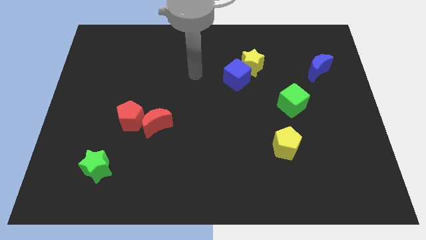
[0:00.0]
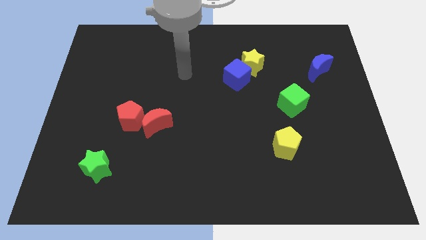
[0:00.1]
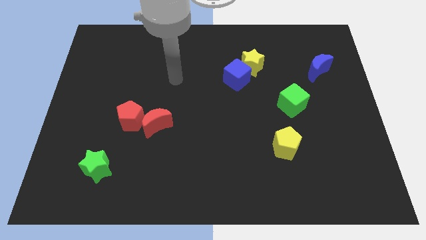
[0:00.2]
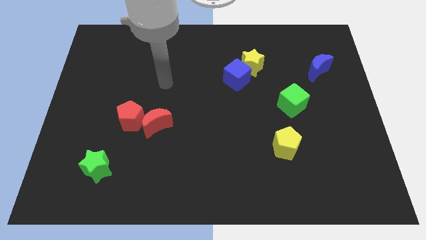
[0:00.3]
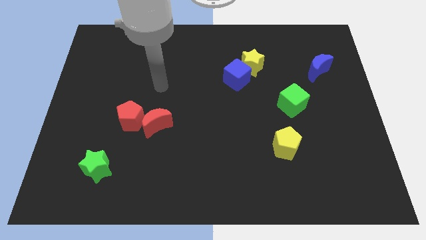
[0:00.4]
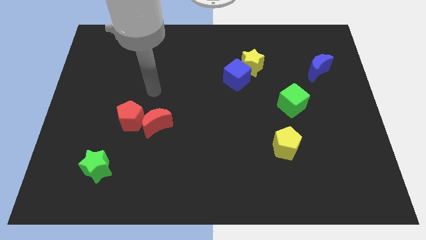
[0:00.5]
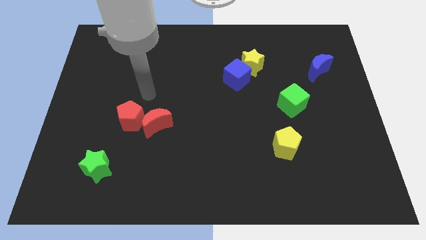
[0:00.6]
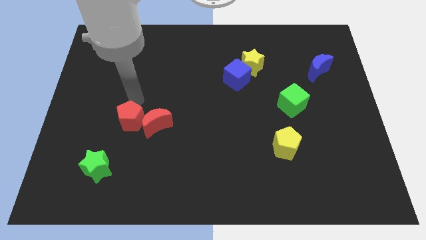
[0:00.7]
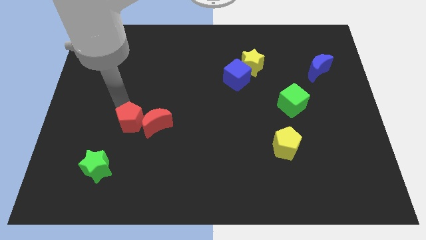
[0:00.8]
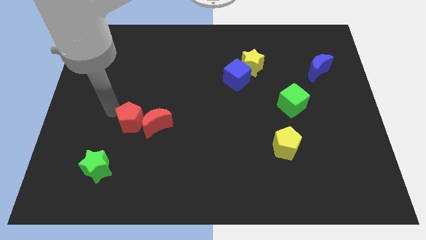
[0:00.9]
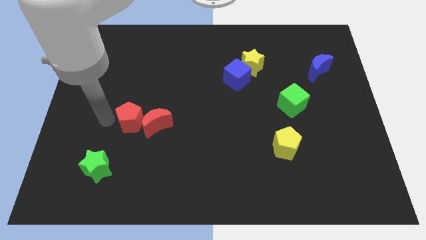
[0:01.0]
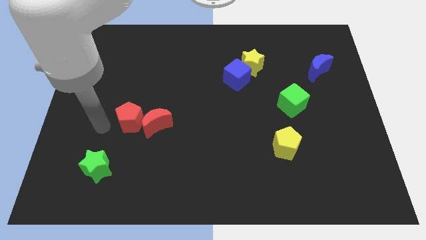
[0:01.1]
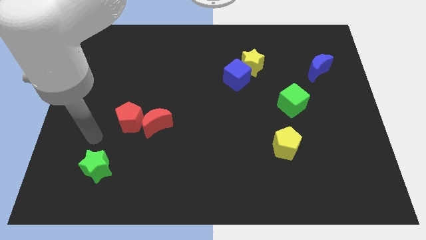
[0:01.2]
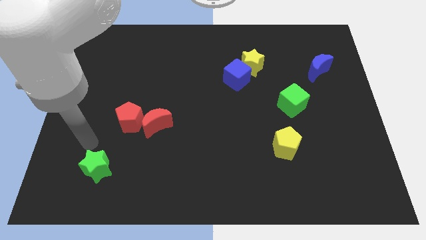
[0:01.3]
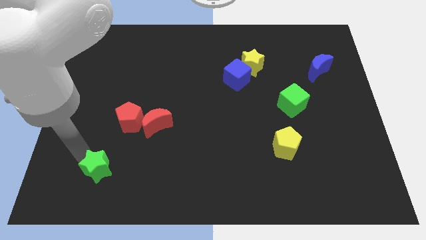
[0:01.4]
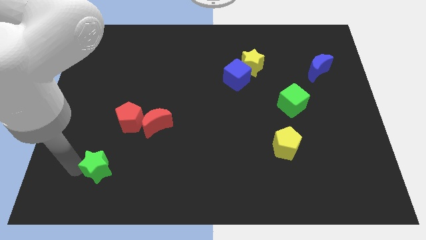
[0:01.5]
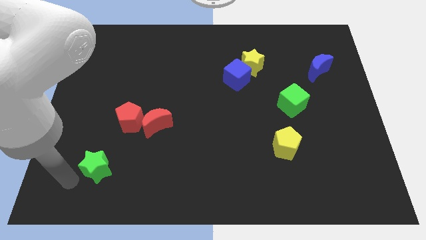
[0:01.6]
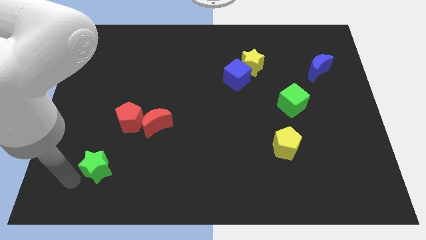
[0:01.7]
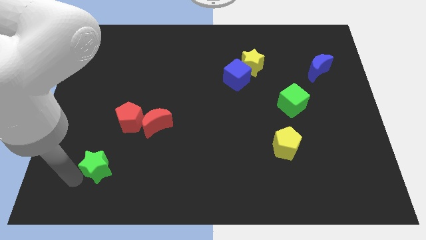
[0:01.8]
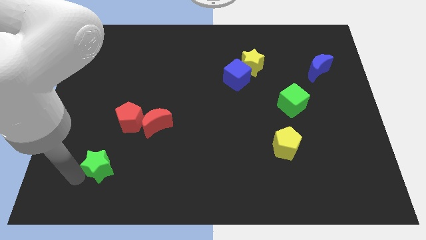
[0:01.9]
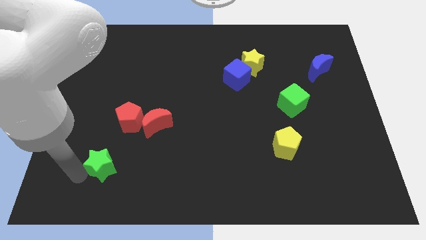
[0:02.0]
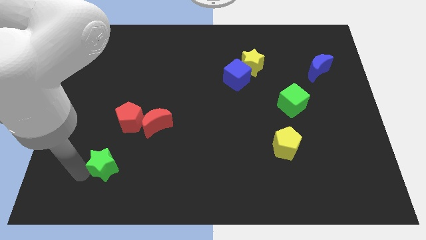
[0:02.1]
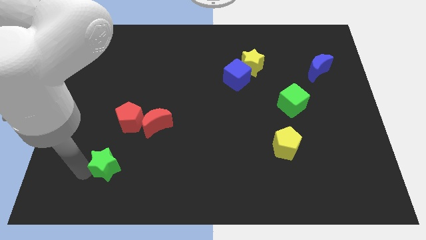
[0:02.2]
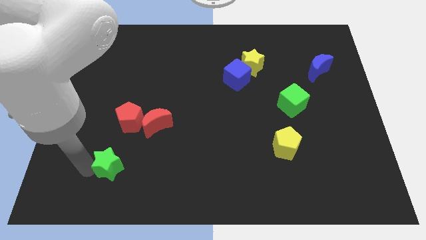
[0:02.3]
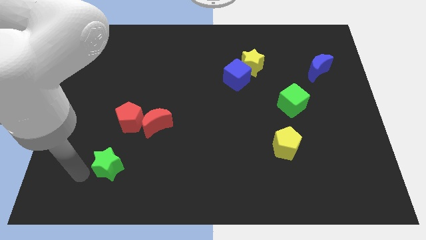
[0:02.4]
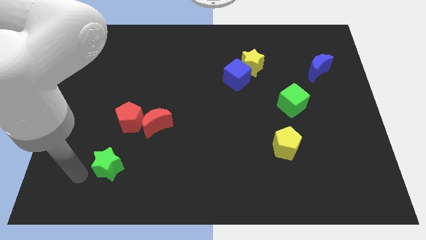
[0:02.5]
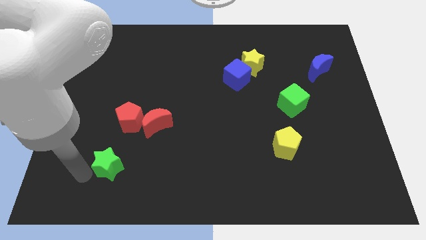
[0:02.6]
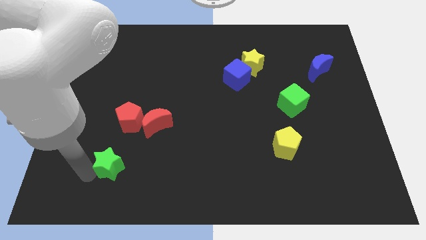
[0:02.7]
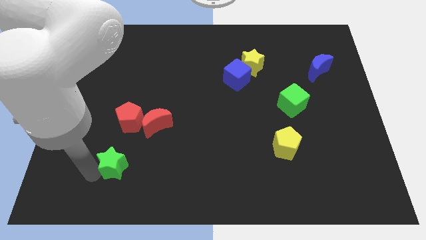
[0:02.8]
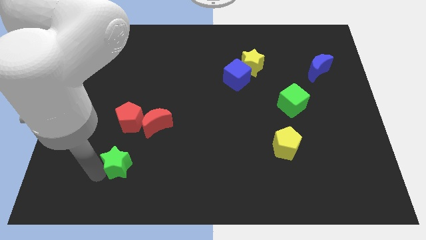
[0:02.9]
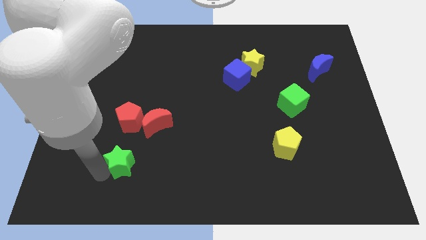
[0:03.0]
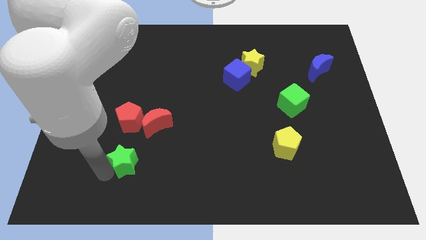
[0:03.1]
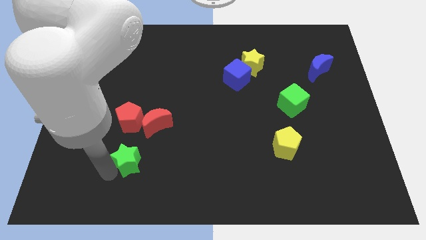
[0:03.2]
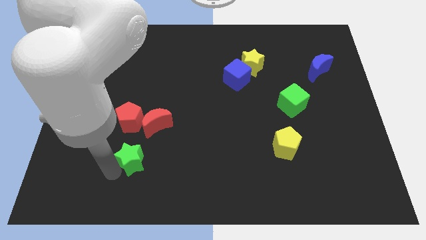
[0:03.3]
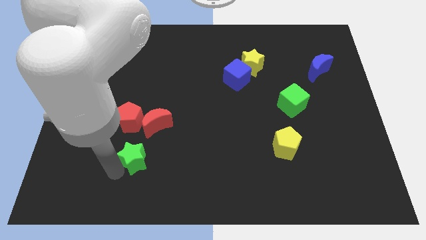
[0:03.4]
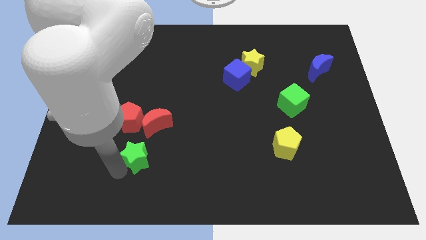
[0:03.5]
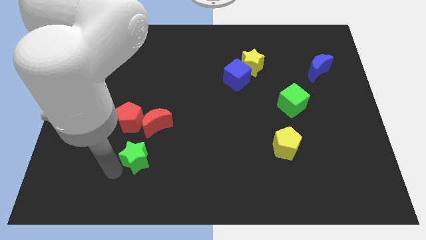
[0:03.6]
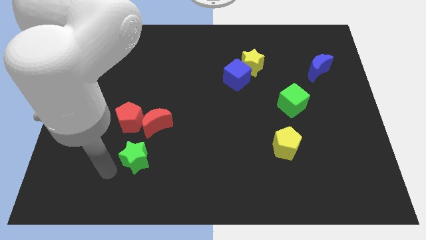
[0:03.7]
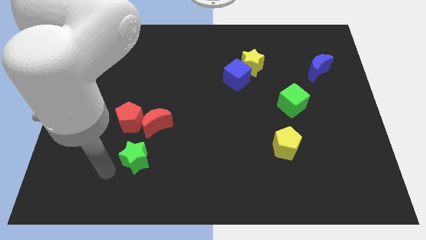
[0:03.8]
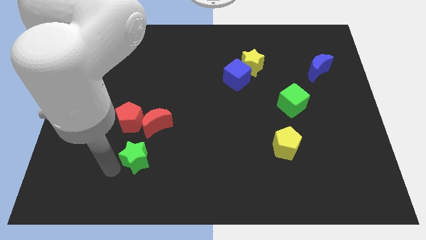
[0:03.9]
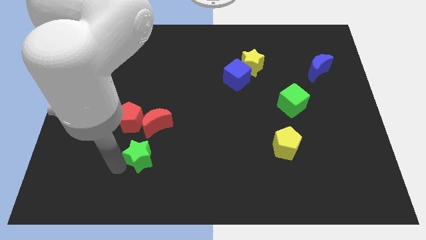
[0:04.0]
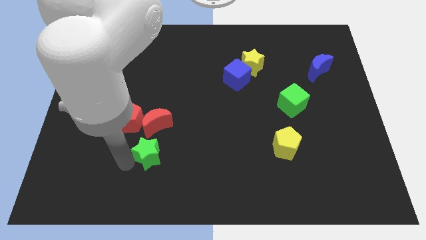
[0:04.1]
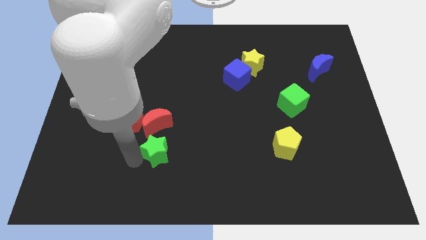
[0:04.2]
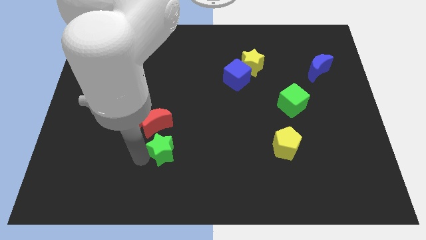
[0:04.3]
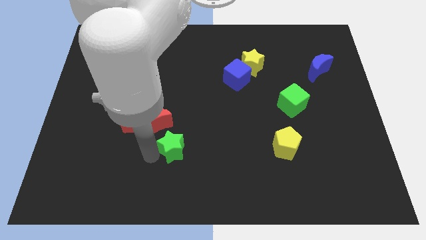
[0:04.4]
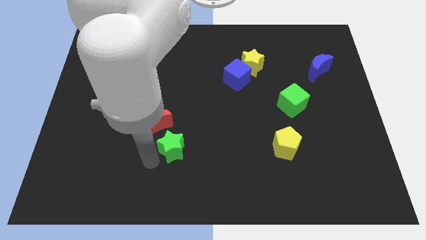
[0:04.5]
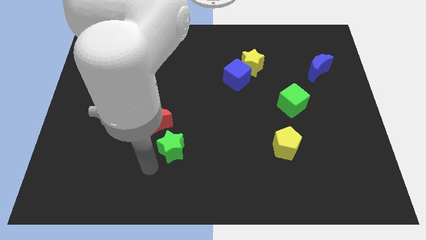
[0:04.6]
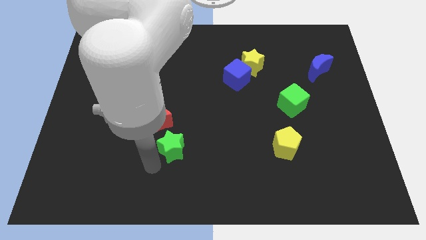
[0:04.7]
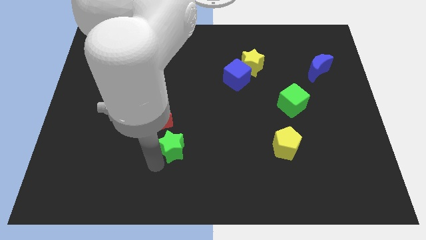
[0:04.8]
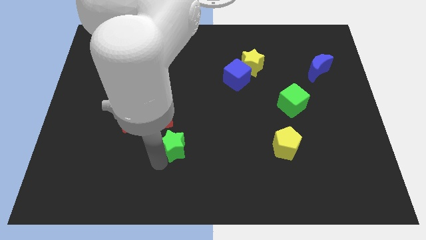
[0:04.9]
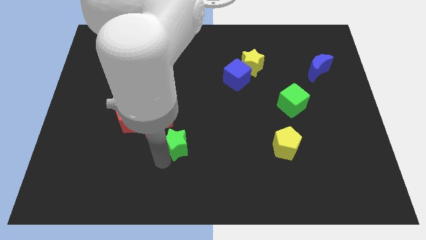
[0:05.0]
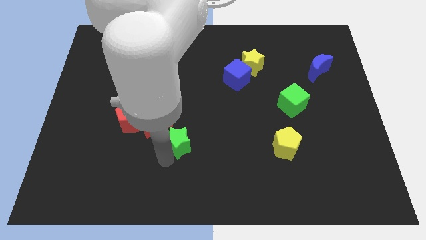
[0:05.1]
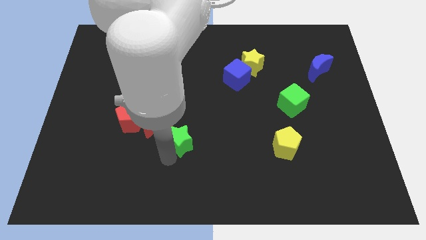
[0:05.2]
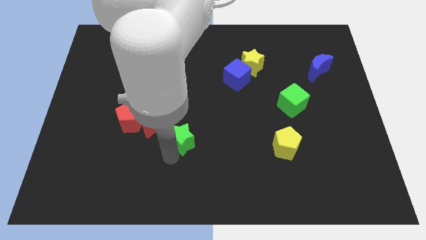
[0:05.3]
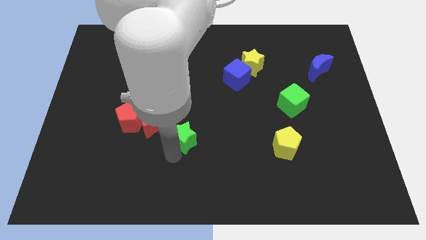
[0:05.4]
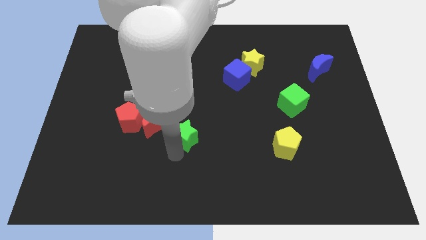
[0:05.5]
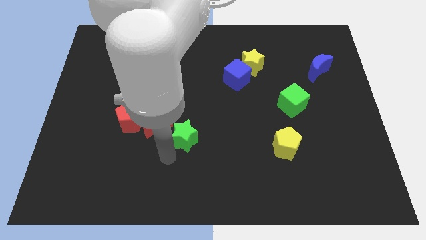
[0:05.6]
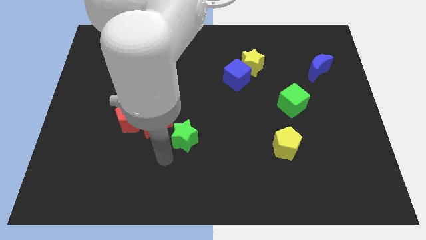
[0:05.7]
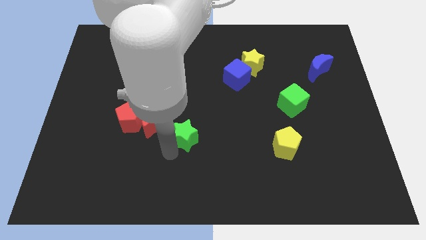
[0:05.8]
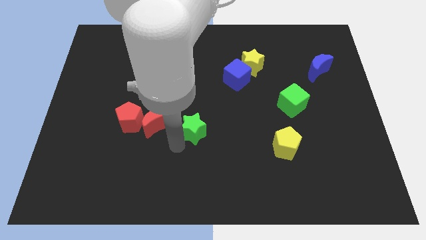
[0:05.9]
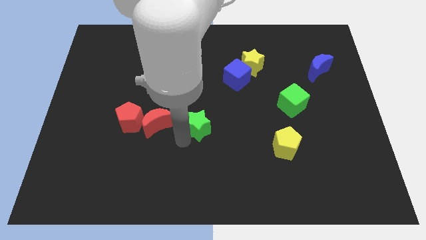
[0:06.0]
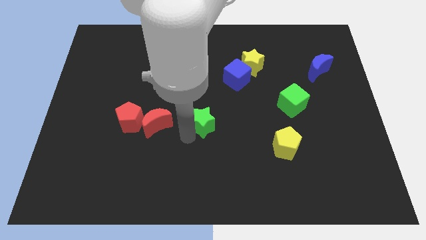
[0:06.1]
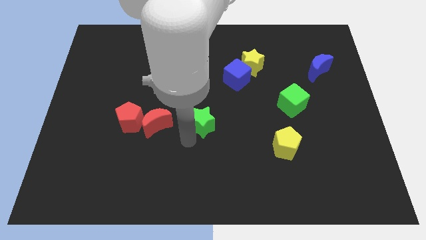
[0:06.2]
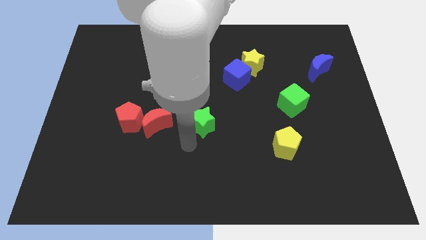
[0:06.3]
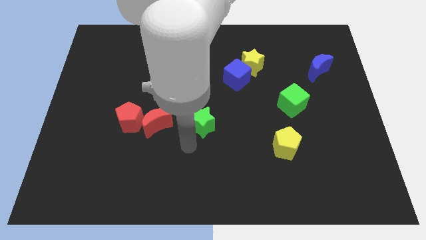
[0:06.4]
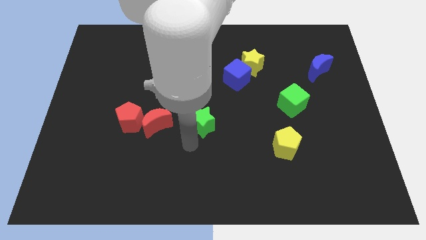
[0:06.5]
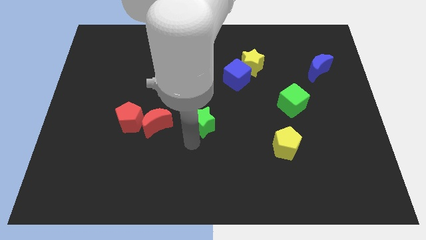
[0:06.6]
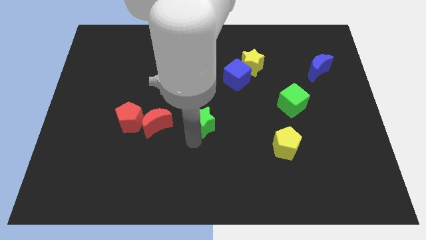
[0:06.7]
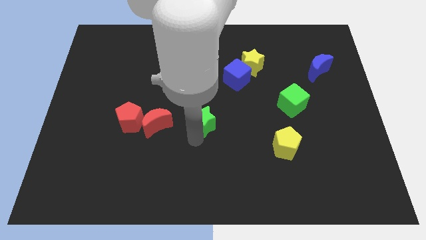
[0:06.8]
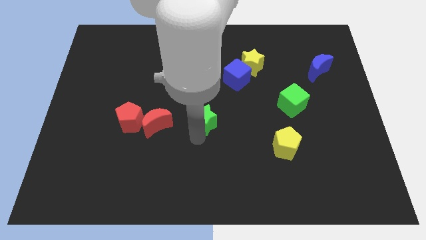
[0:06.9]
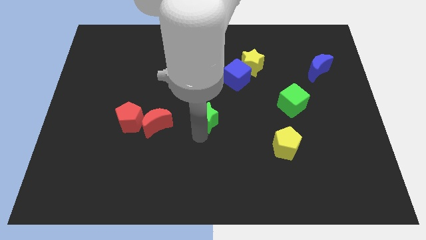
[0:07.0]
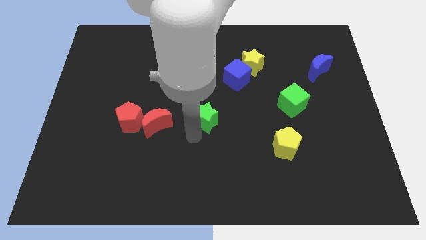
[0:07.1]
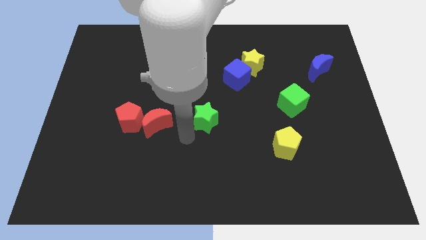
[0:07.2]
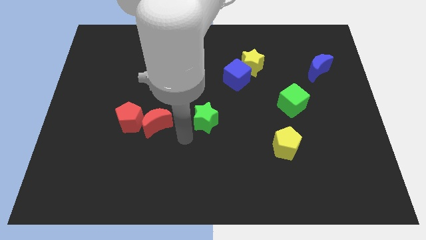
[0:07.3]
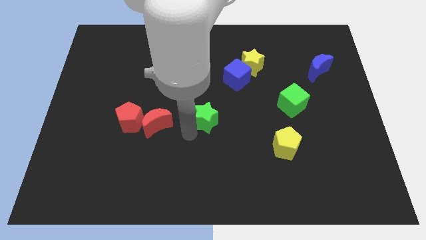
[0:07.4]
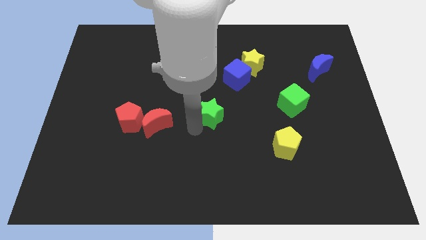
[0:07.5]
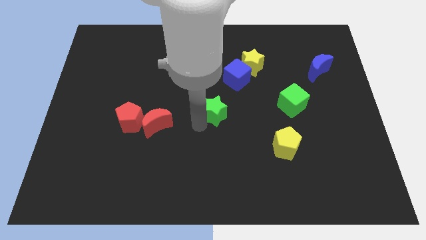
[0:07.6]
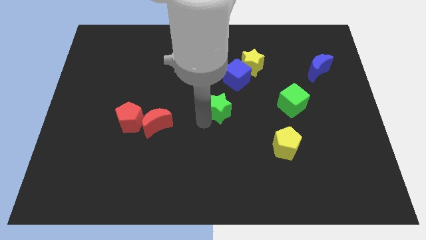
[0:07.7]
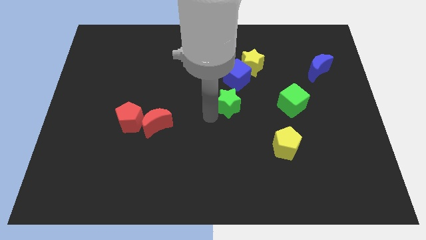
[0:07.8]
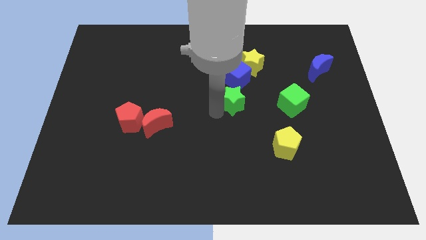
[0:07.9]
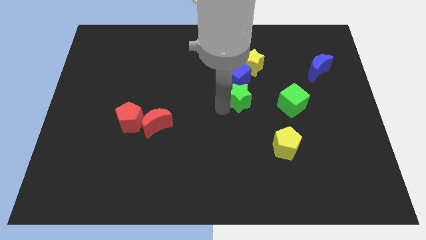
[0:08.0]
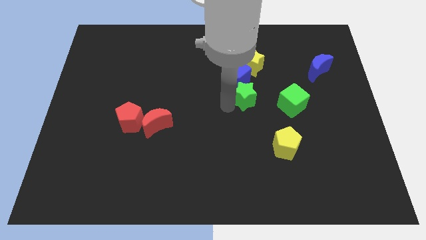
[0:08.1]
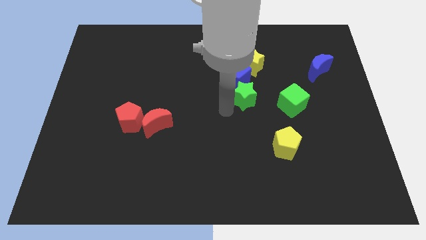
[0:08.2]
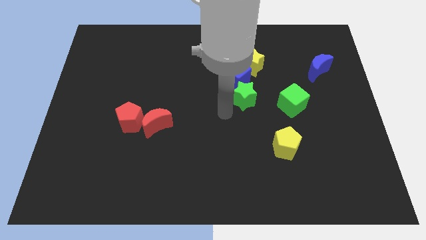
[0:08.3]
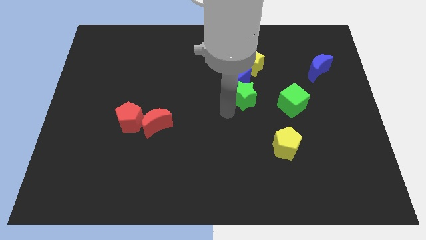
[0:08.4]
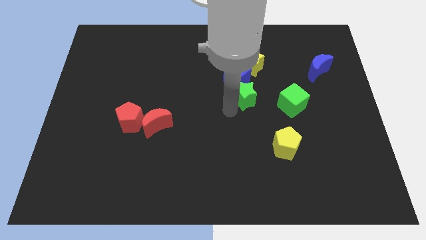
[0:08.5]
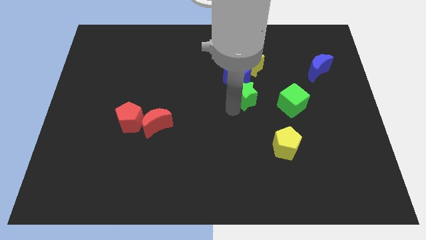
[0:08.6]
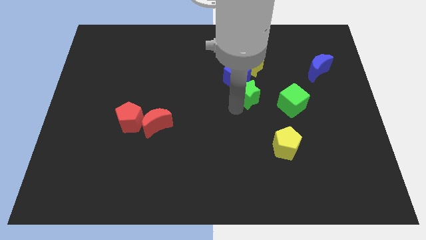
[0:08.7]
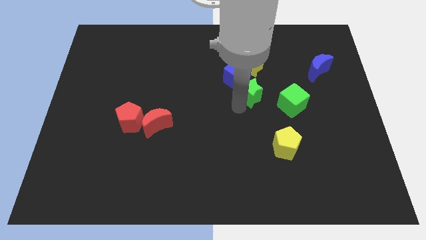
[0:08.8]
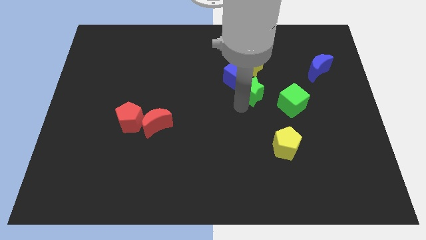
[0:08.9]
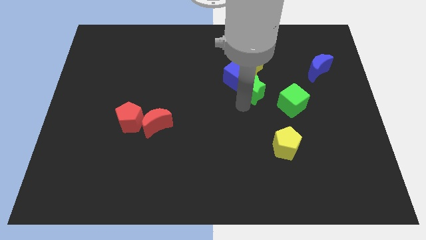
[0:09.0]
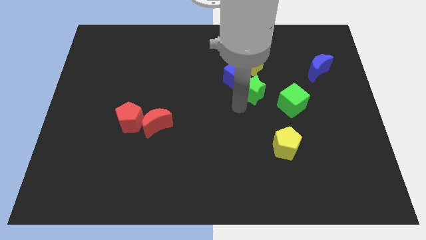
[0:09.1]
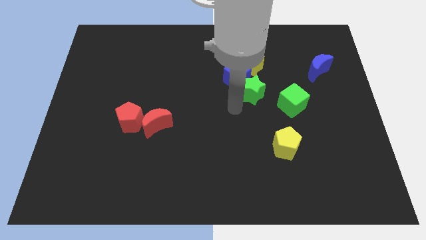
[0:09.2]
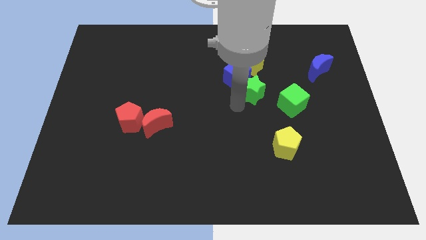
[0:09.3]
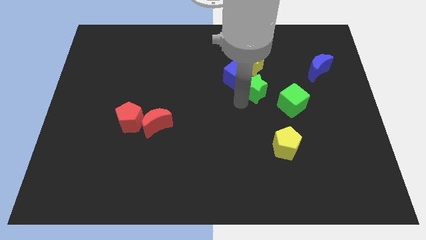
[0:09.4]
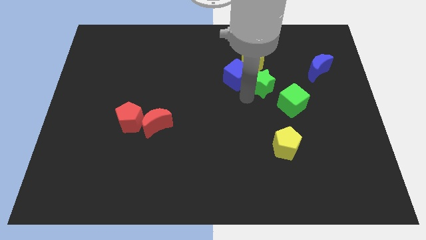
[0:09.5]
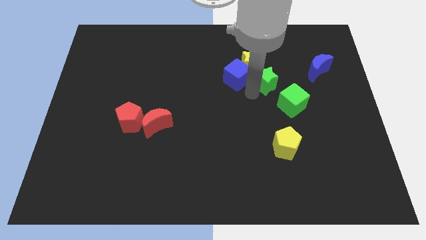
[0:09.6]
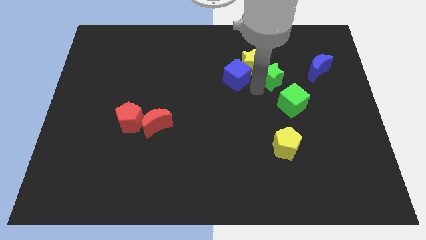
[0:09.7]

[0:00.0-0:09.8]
slide the green star to the left of the blue moon
